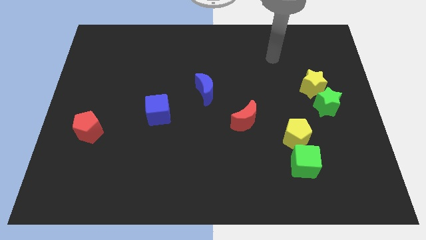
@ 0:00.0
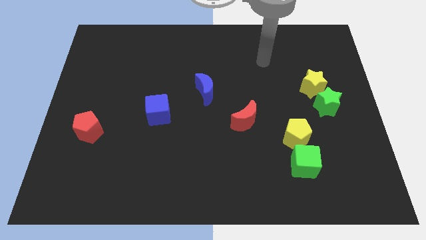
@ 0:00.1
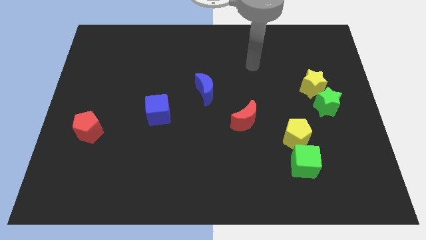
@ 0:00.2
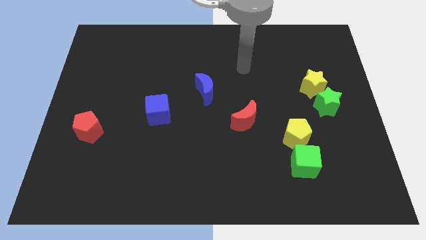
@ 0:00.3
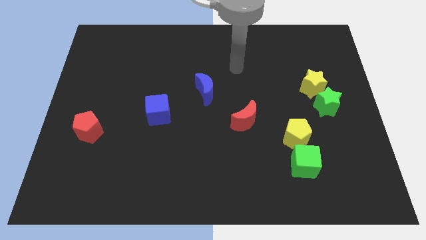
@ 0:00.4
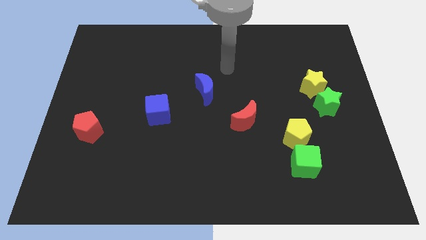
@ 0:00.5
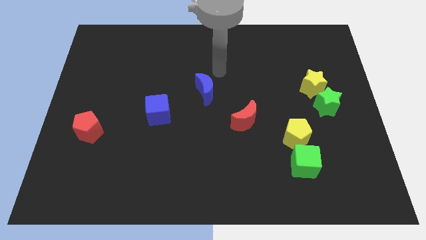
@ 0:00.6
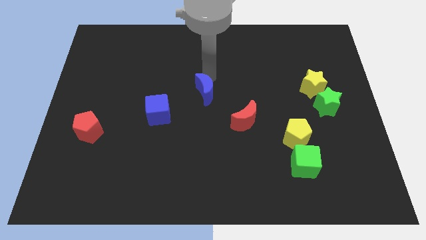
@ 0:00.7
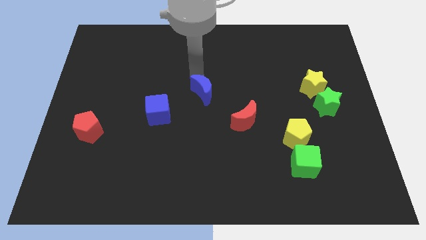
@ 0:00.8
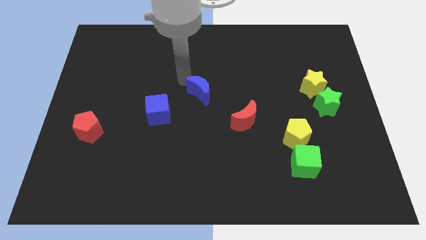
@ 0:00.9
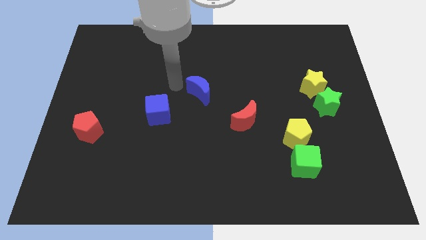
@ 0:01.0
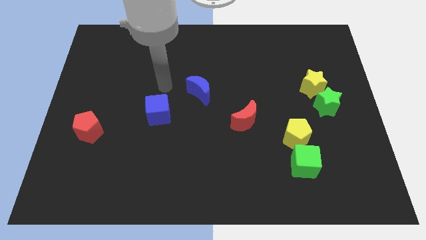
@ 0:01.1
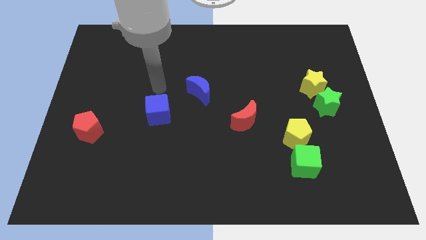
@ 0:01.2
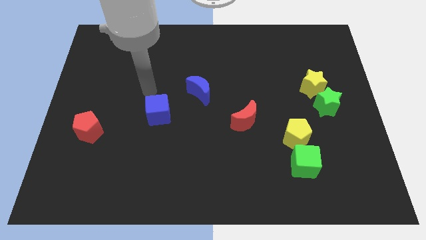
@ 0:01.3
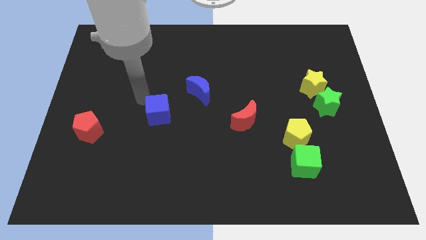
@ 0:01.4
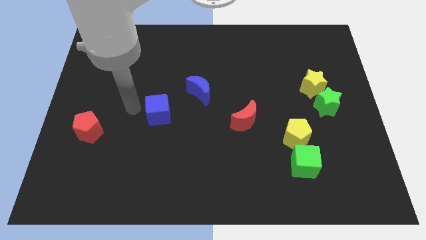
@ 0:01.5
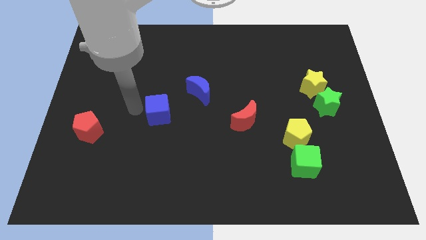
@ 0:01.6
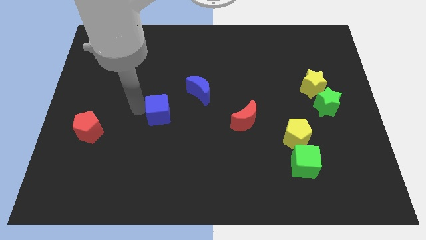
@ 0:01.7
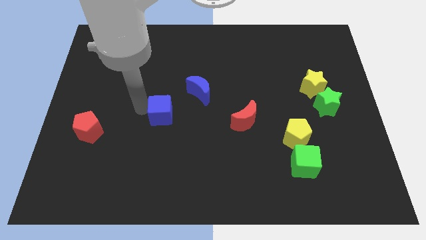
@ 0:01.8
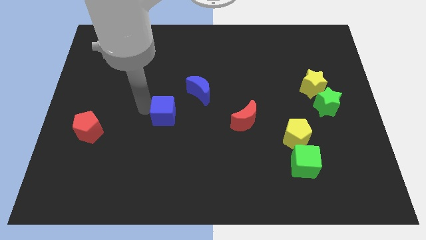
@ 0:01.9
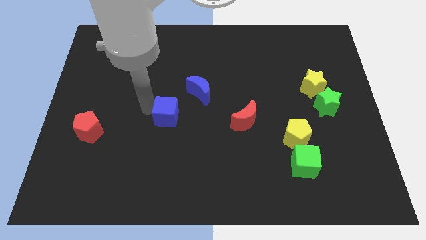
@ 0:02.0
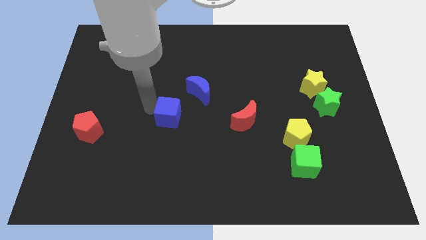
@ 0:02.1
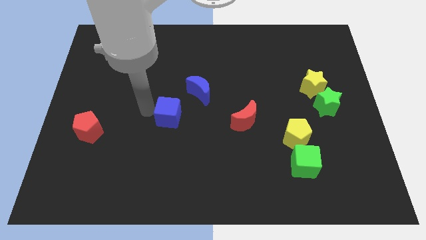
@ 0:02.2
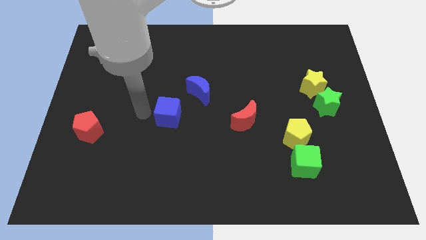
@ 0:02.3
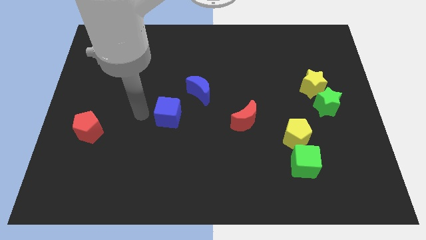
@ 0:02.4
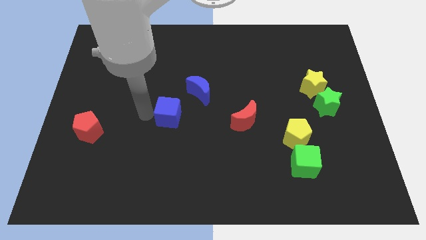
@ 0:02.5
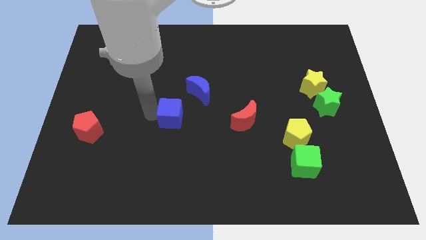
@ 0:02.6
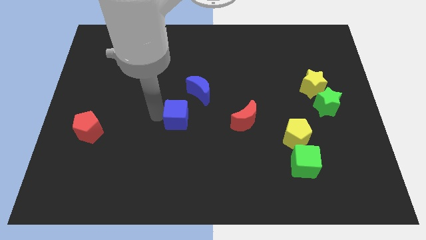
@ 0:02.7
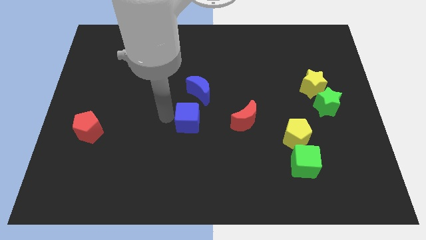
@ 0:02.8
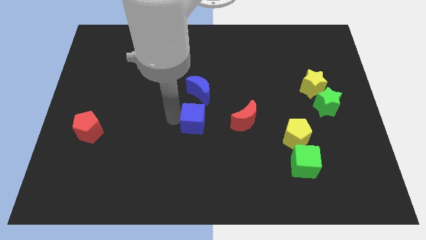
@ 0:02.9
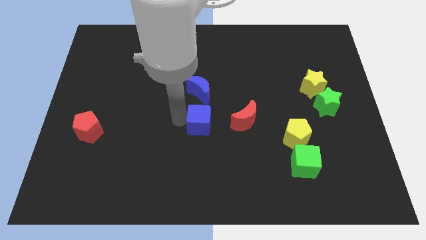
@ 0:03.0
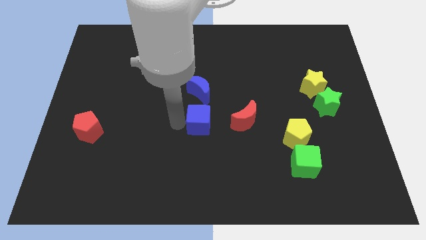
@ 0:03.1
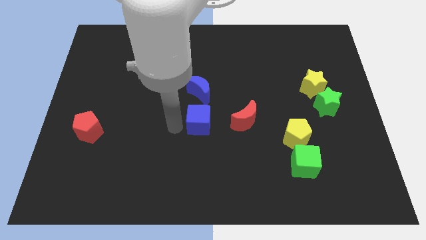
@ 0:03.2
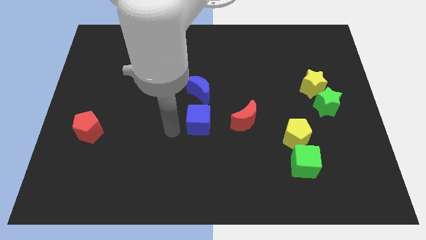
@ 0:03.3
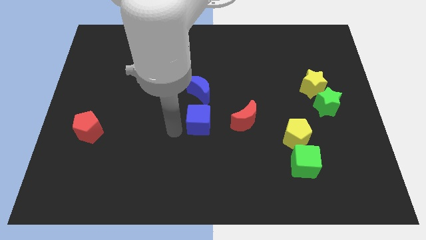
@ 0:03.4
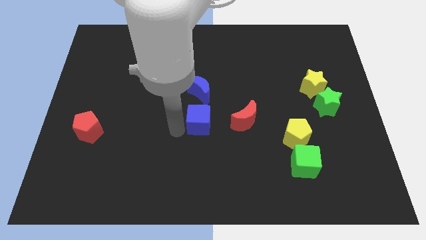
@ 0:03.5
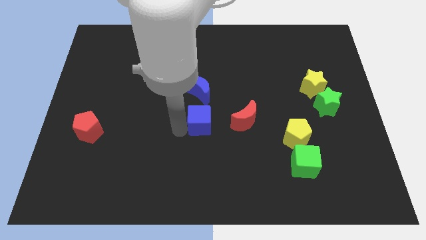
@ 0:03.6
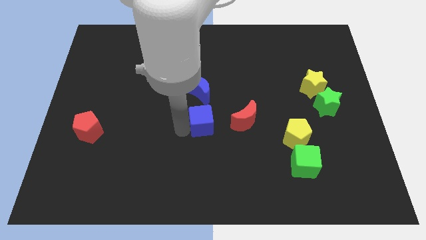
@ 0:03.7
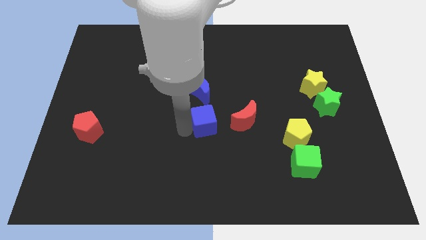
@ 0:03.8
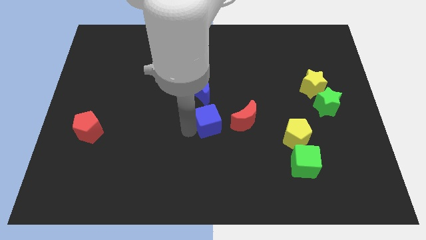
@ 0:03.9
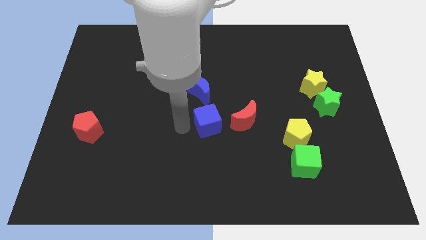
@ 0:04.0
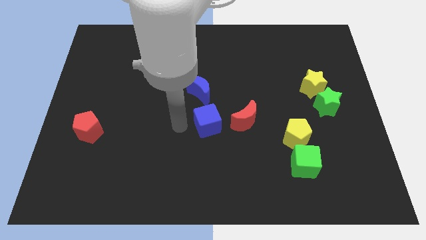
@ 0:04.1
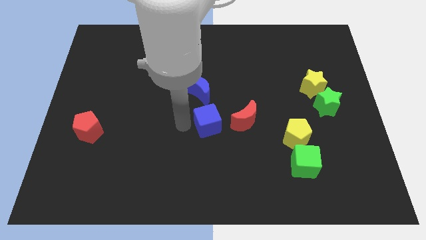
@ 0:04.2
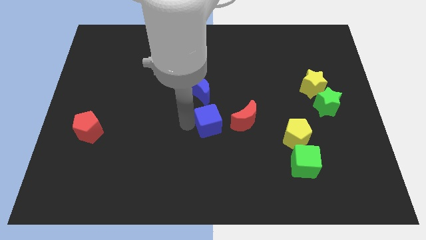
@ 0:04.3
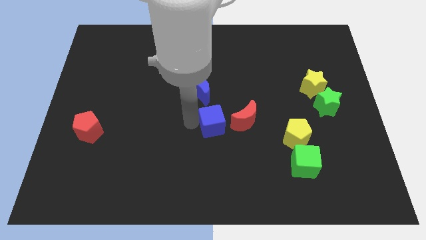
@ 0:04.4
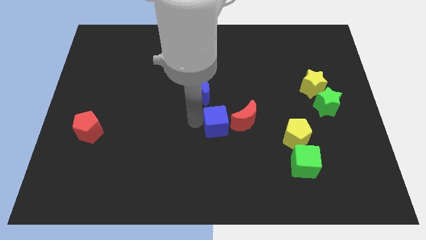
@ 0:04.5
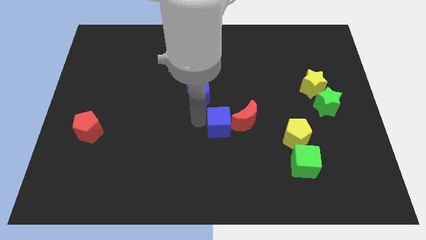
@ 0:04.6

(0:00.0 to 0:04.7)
put the blue cube to the red moon

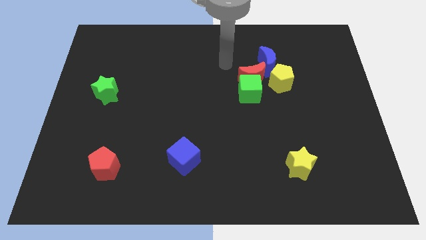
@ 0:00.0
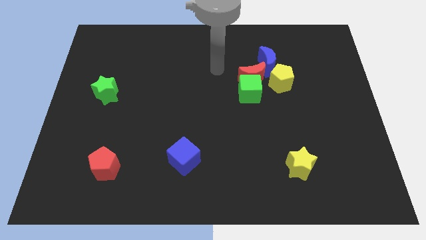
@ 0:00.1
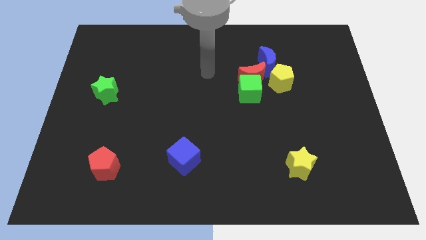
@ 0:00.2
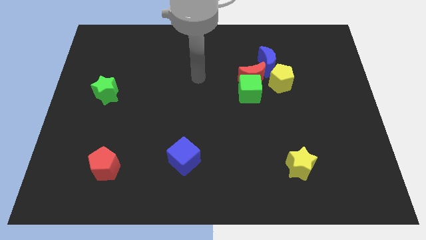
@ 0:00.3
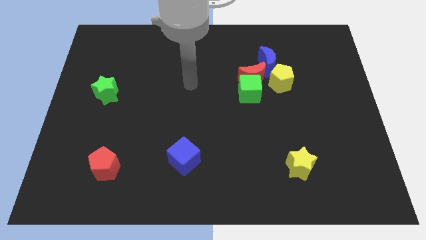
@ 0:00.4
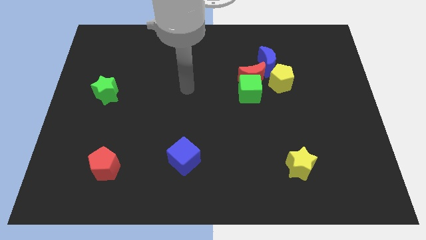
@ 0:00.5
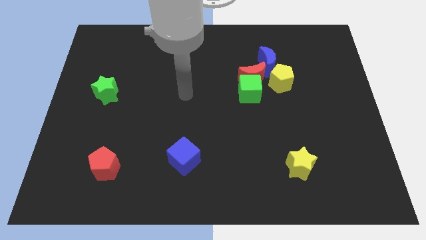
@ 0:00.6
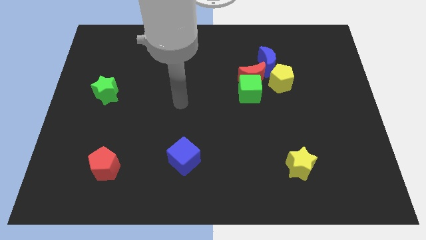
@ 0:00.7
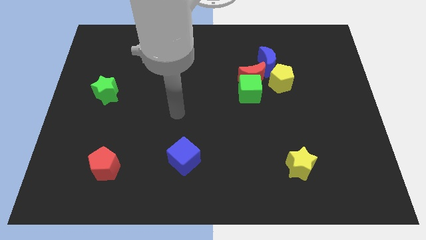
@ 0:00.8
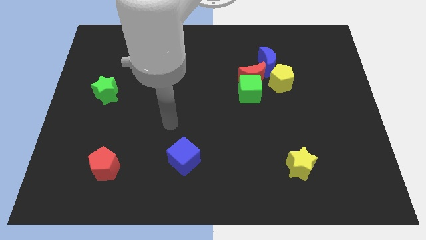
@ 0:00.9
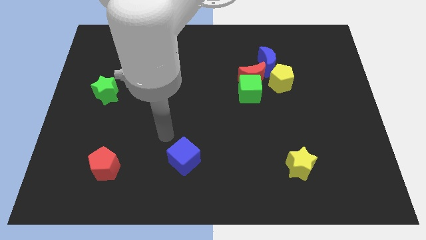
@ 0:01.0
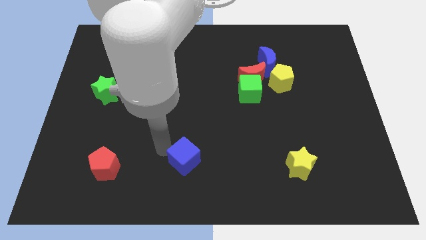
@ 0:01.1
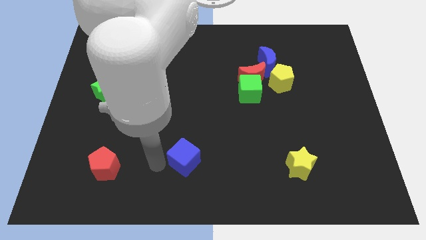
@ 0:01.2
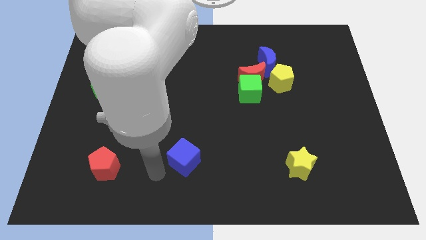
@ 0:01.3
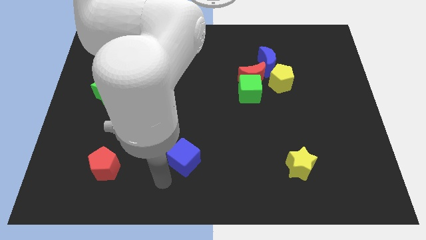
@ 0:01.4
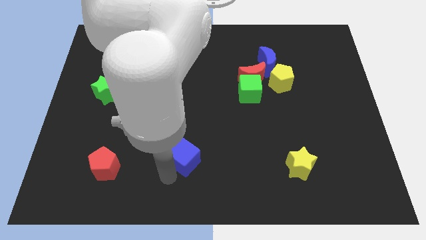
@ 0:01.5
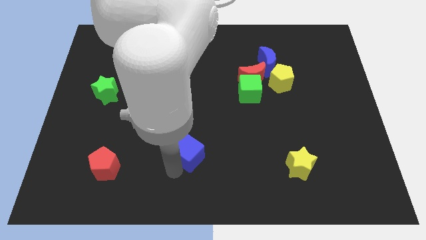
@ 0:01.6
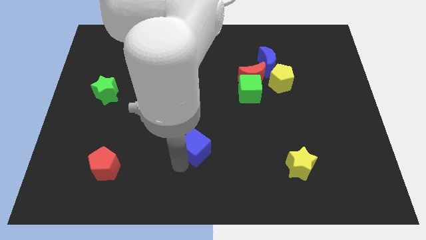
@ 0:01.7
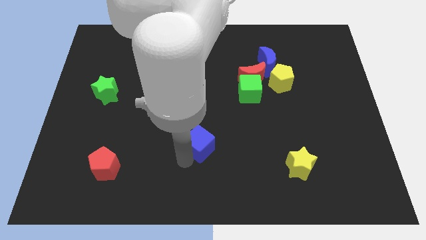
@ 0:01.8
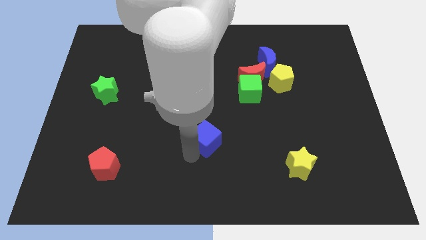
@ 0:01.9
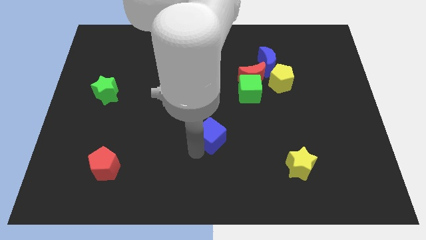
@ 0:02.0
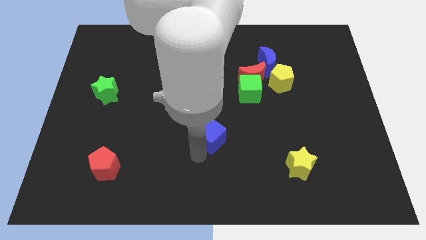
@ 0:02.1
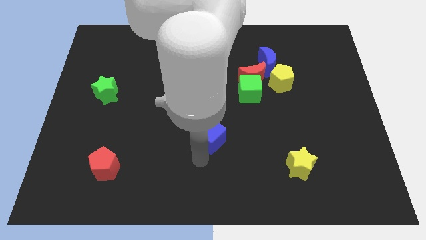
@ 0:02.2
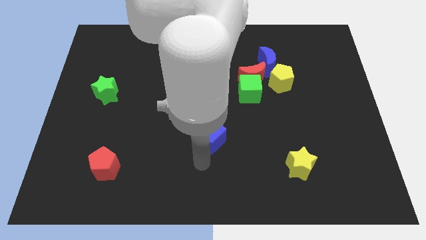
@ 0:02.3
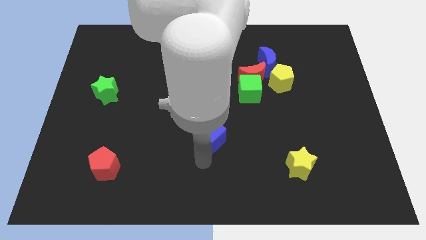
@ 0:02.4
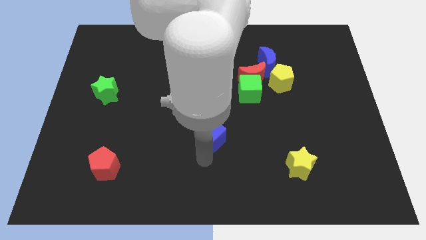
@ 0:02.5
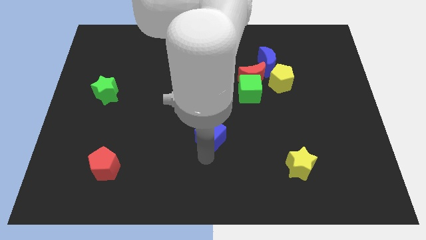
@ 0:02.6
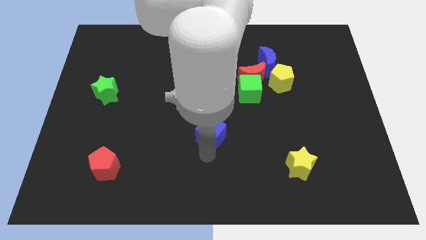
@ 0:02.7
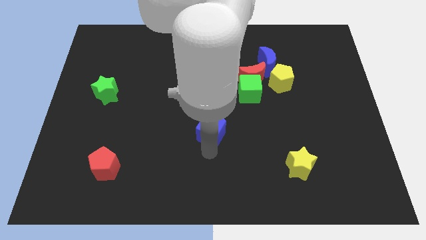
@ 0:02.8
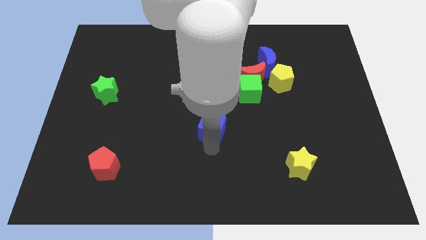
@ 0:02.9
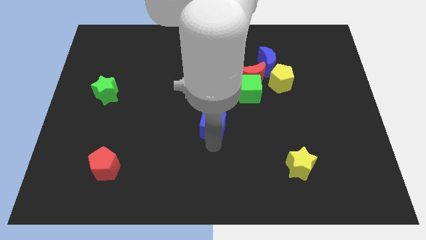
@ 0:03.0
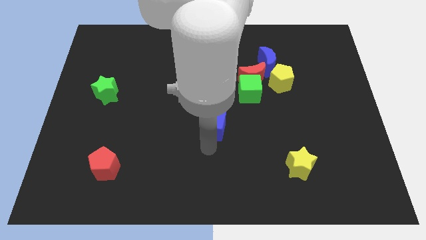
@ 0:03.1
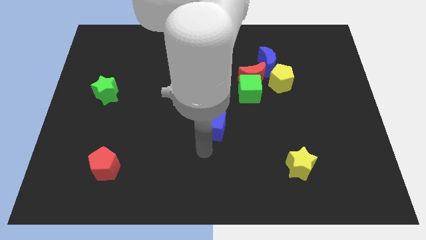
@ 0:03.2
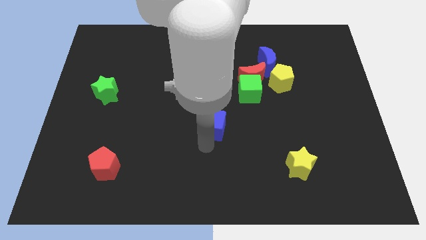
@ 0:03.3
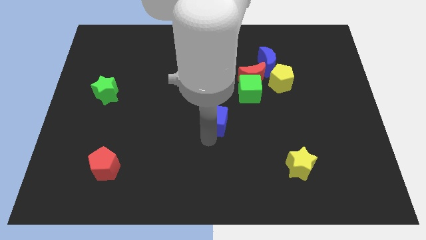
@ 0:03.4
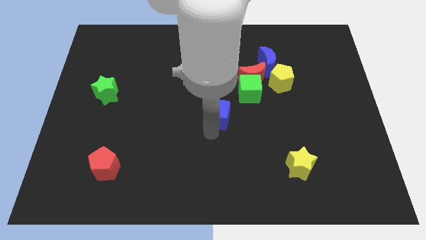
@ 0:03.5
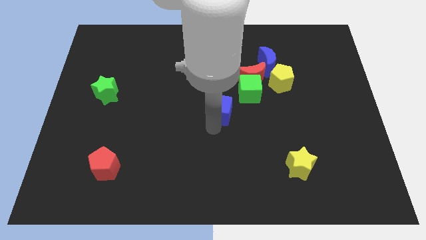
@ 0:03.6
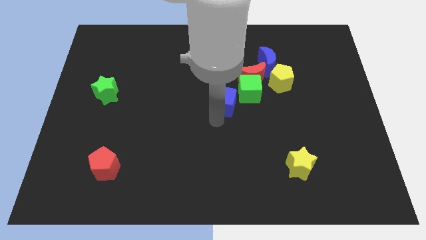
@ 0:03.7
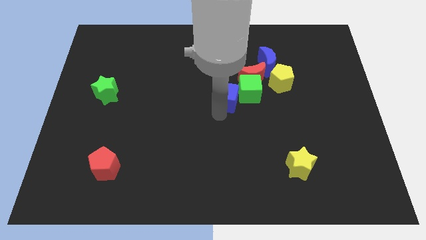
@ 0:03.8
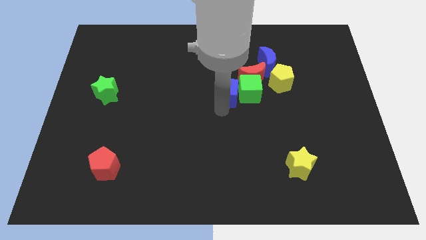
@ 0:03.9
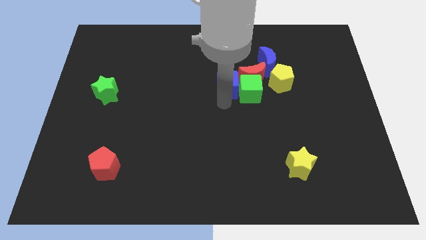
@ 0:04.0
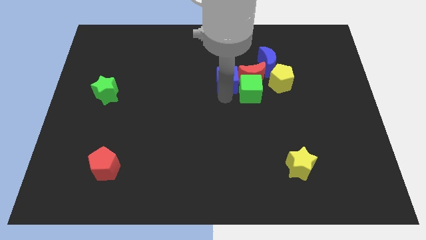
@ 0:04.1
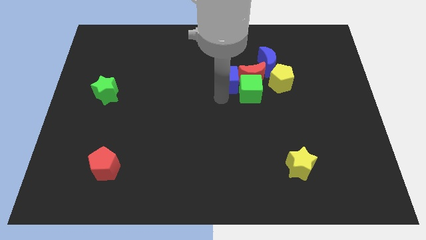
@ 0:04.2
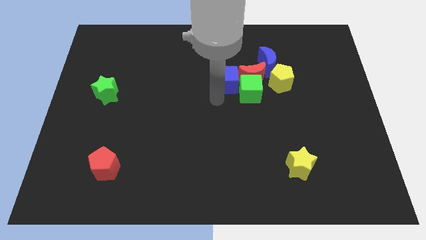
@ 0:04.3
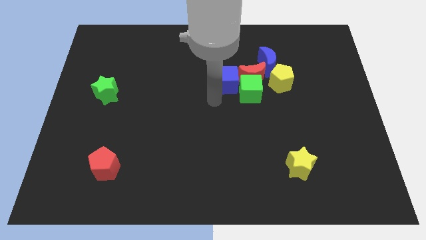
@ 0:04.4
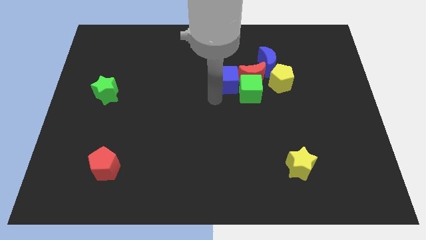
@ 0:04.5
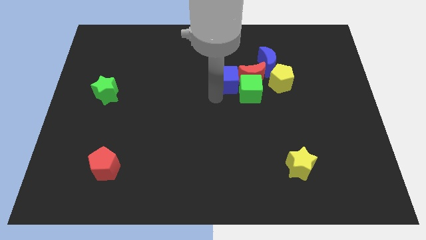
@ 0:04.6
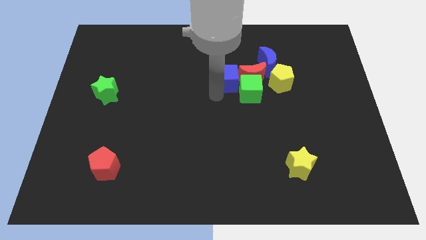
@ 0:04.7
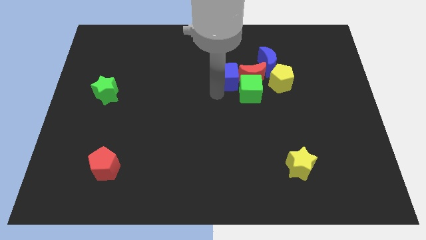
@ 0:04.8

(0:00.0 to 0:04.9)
move the blue cube towards the red moon
